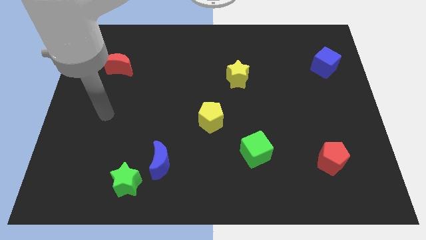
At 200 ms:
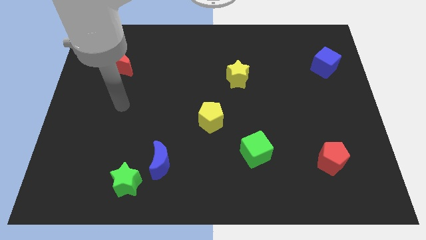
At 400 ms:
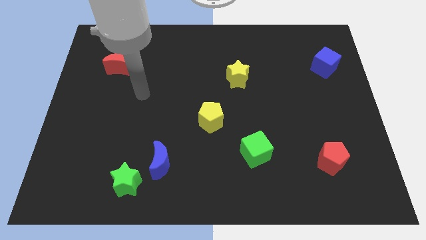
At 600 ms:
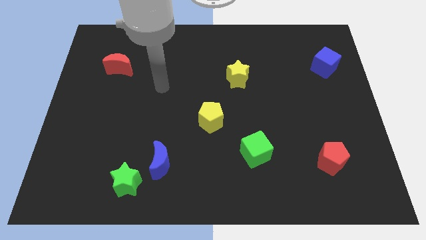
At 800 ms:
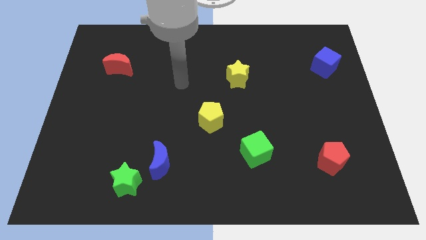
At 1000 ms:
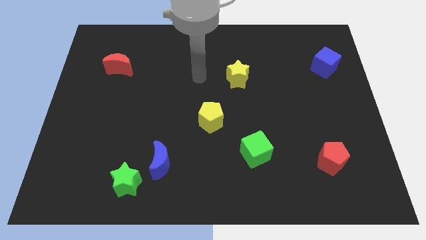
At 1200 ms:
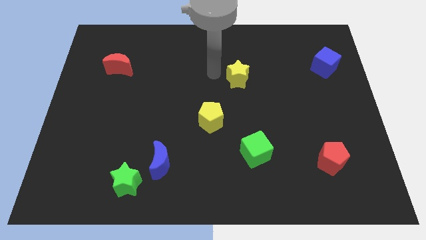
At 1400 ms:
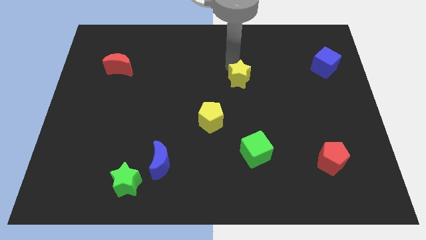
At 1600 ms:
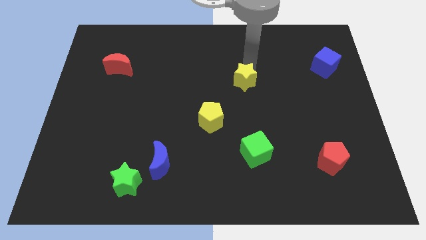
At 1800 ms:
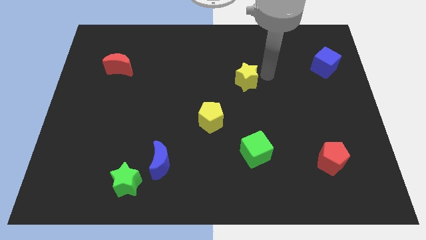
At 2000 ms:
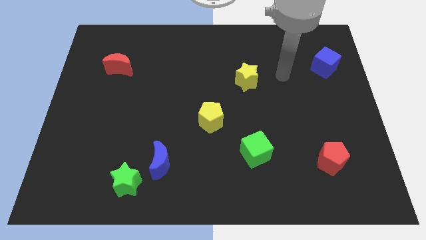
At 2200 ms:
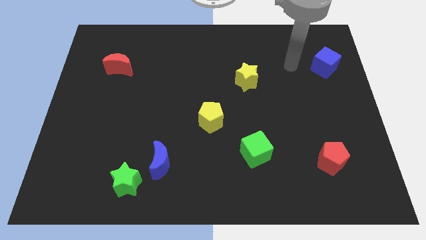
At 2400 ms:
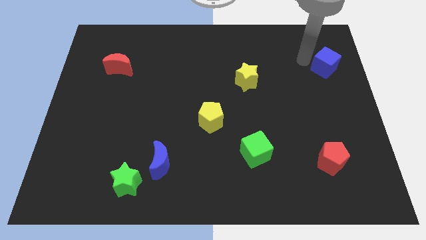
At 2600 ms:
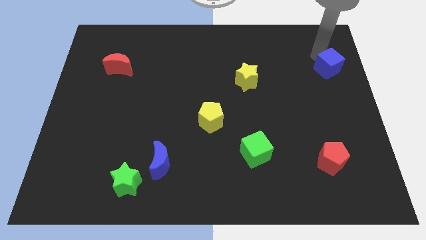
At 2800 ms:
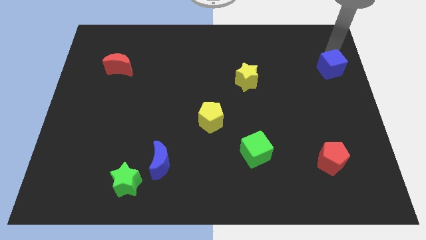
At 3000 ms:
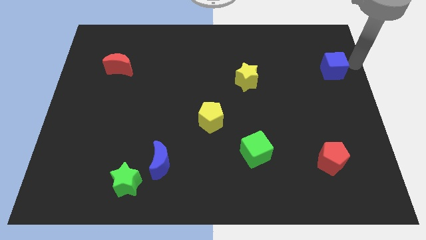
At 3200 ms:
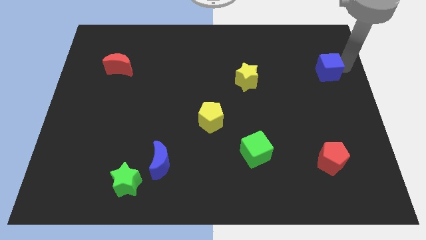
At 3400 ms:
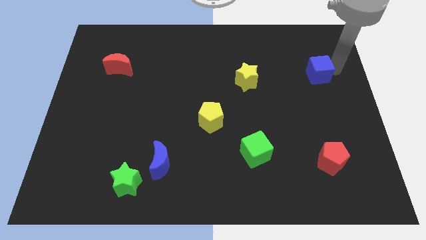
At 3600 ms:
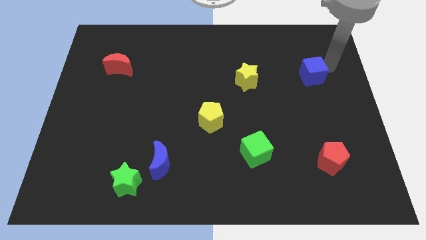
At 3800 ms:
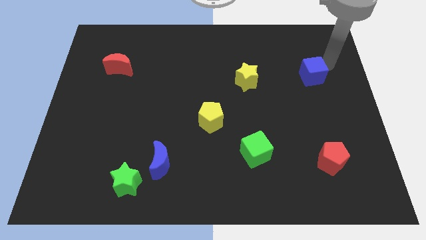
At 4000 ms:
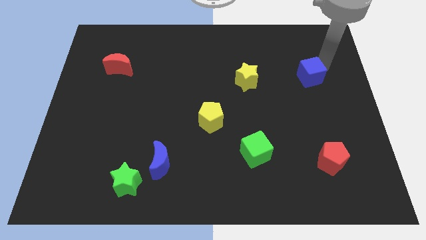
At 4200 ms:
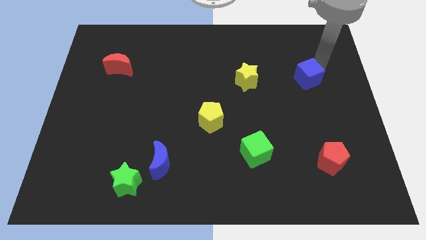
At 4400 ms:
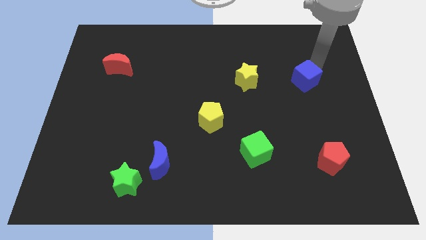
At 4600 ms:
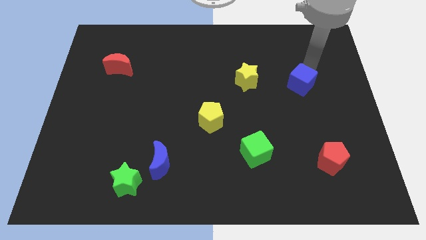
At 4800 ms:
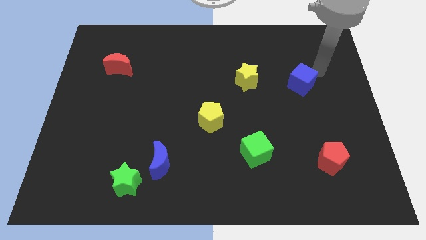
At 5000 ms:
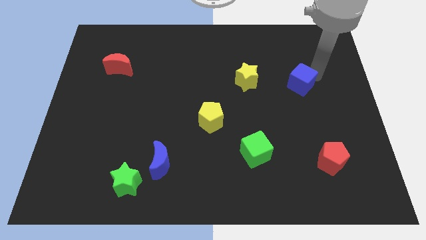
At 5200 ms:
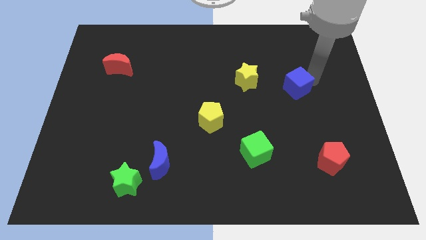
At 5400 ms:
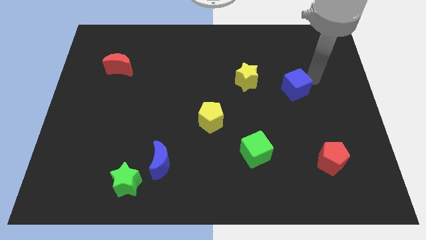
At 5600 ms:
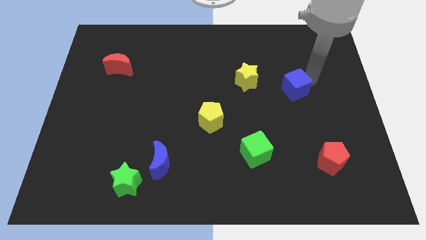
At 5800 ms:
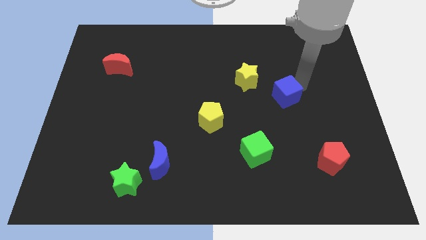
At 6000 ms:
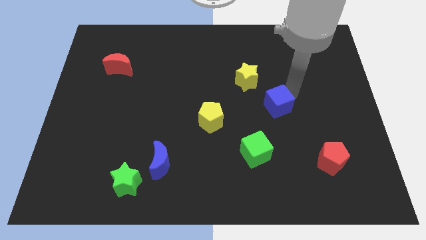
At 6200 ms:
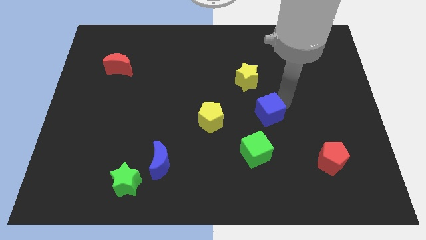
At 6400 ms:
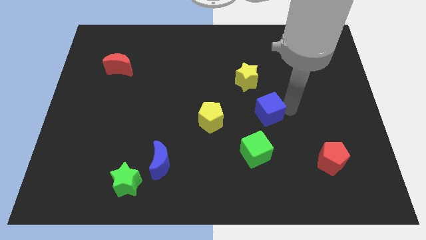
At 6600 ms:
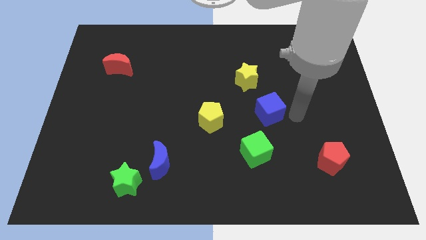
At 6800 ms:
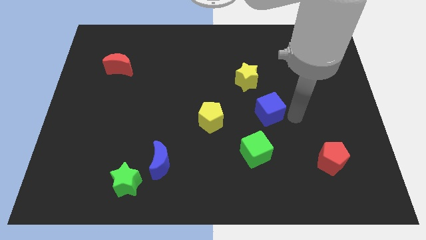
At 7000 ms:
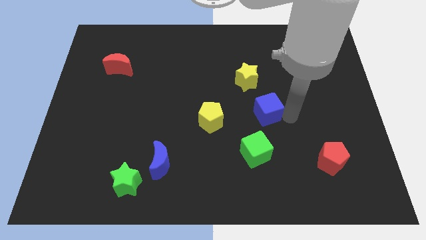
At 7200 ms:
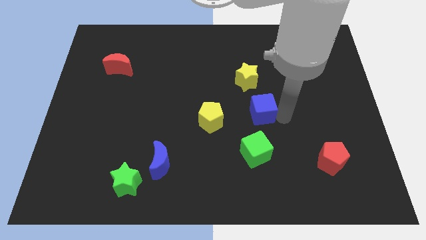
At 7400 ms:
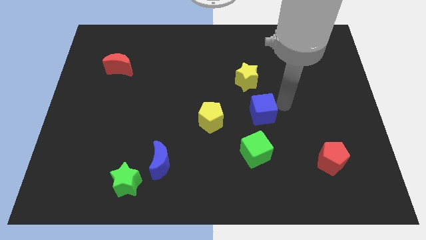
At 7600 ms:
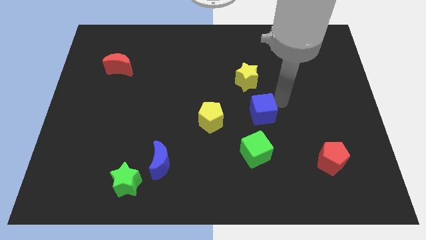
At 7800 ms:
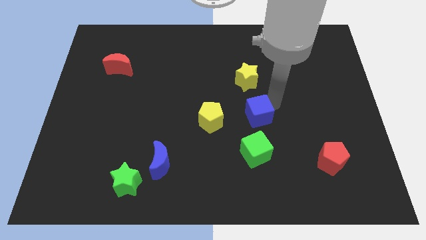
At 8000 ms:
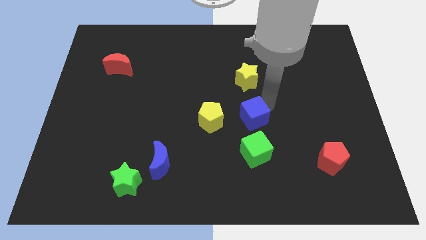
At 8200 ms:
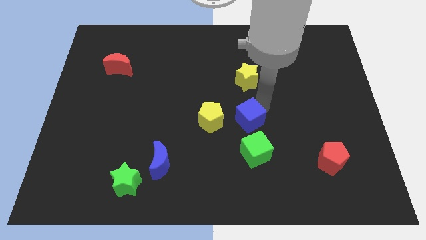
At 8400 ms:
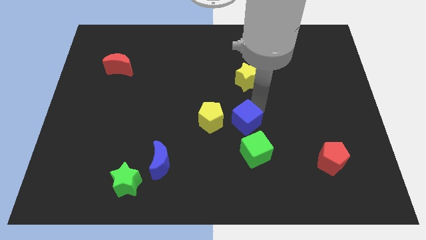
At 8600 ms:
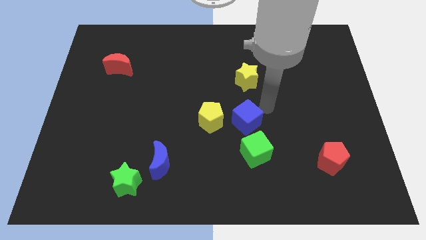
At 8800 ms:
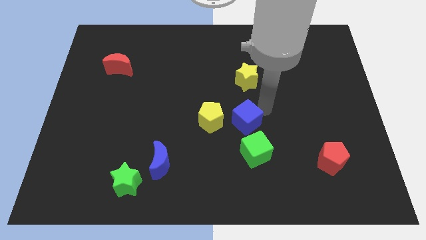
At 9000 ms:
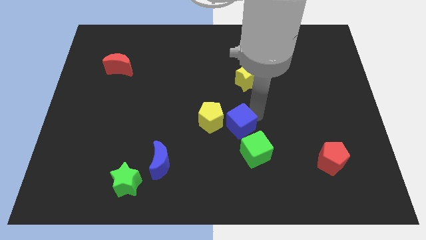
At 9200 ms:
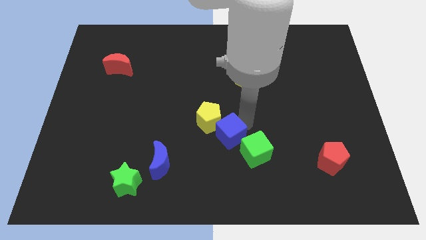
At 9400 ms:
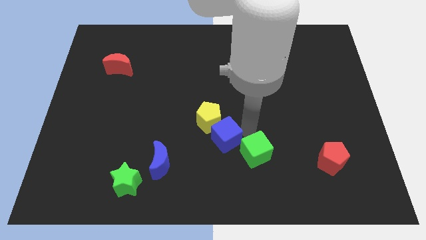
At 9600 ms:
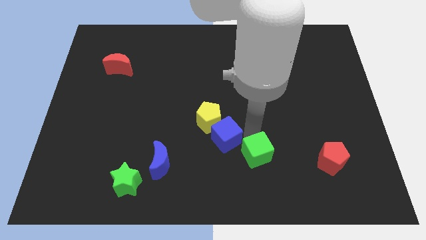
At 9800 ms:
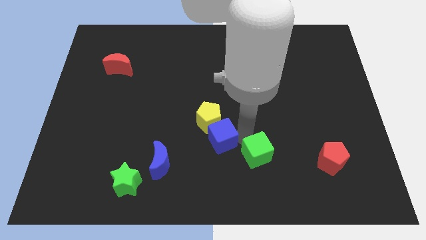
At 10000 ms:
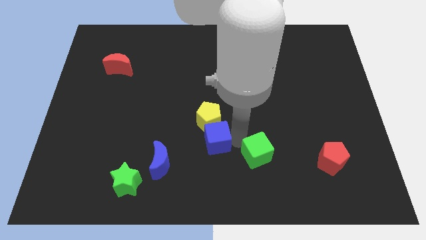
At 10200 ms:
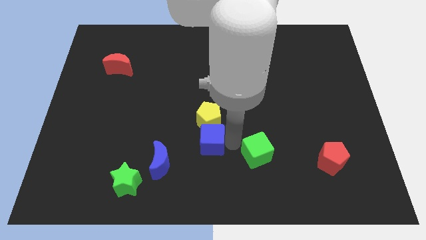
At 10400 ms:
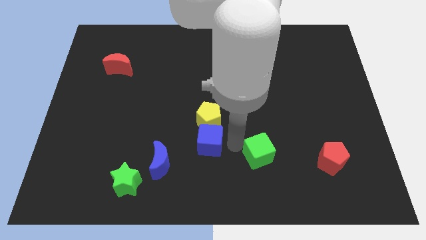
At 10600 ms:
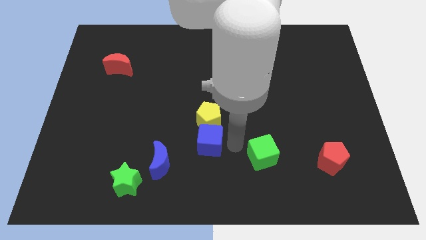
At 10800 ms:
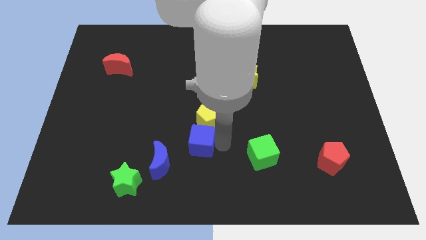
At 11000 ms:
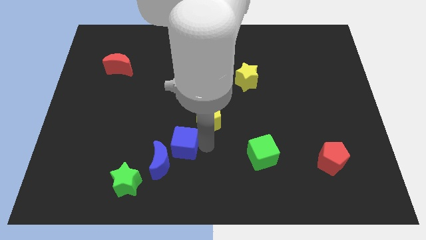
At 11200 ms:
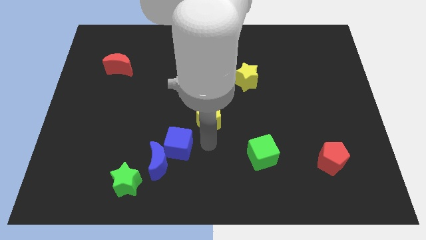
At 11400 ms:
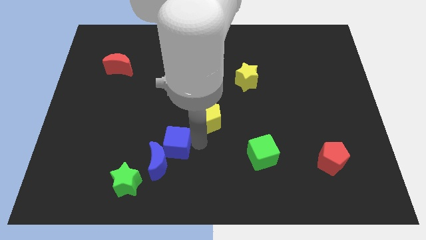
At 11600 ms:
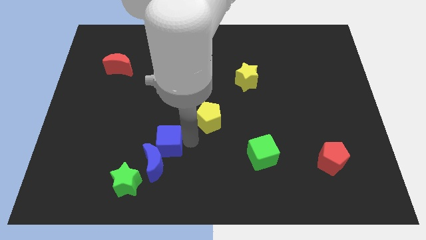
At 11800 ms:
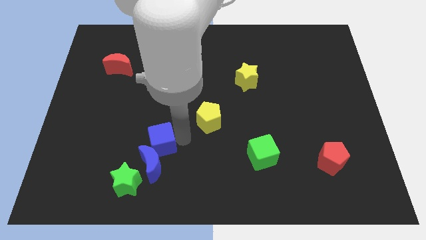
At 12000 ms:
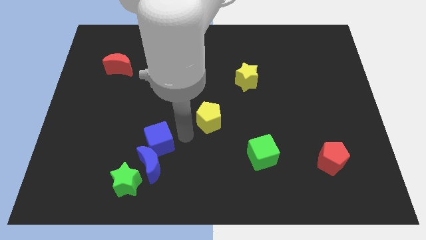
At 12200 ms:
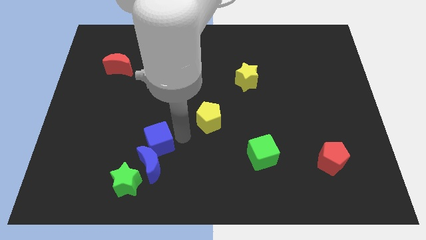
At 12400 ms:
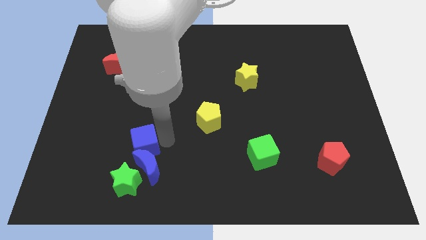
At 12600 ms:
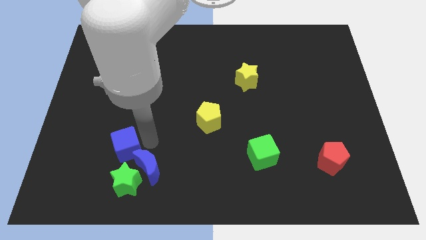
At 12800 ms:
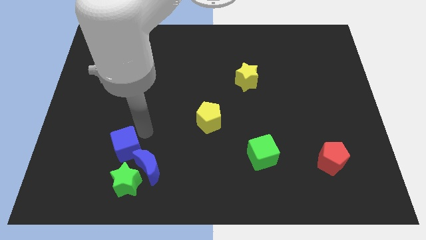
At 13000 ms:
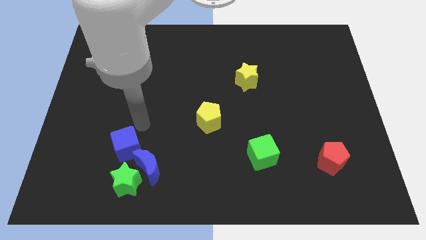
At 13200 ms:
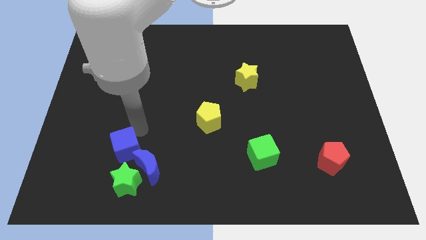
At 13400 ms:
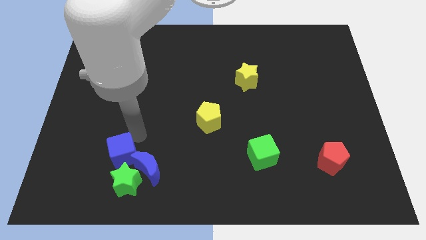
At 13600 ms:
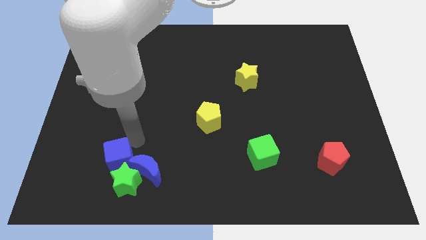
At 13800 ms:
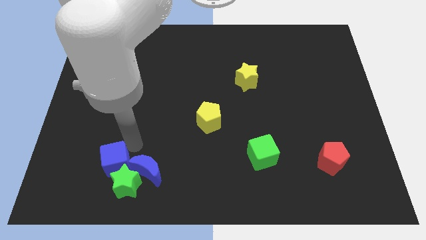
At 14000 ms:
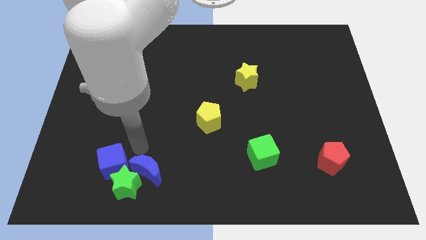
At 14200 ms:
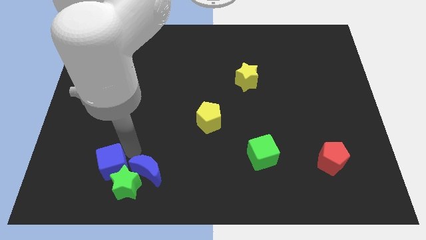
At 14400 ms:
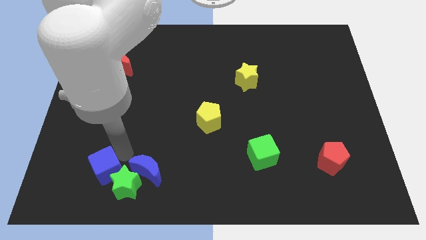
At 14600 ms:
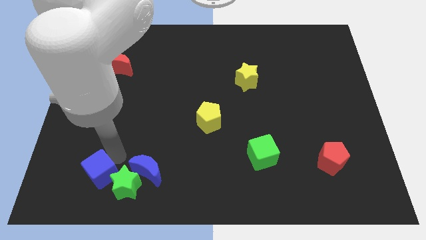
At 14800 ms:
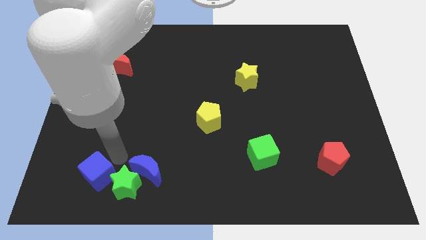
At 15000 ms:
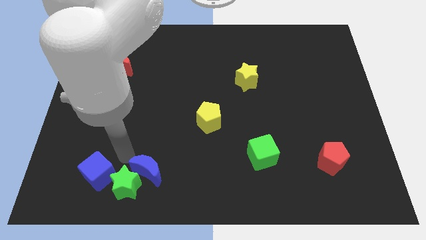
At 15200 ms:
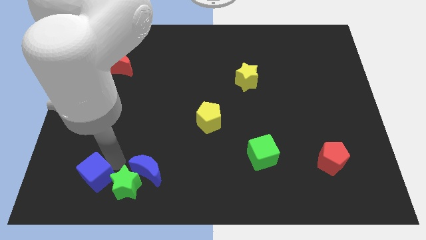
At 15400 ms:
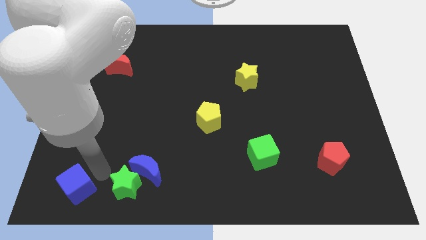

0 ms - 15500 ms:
push the blue cube to the bottom left corner
